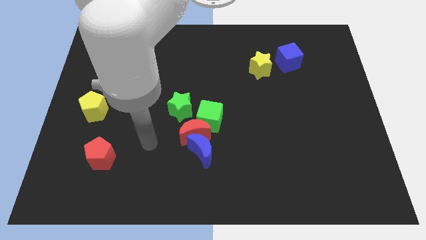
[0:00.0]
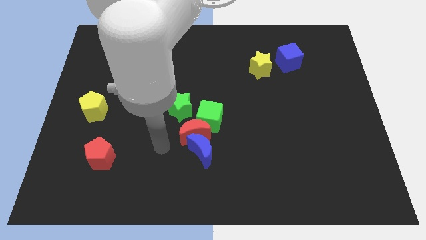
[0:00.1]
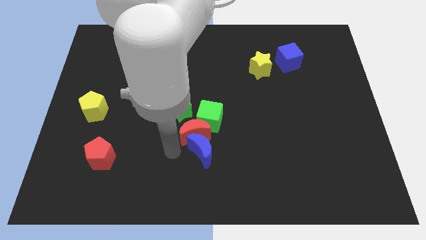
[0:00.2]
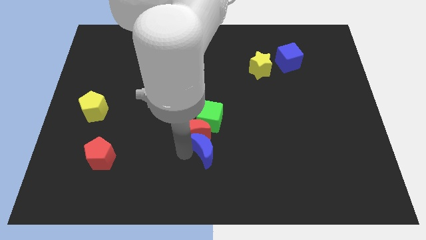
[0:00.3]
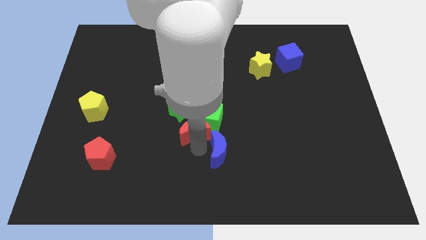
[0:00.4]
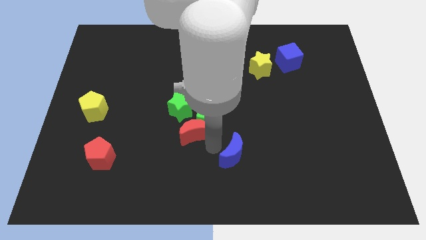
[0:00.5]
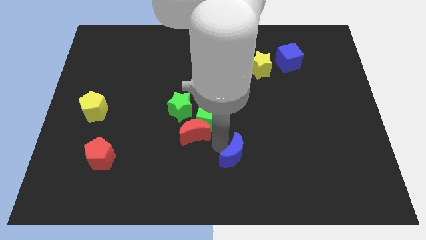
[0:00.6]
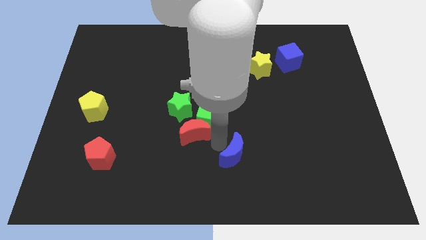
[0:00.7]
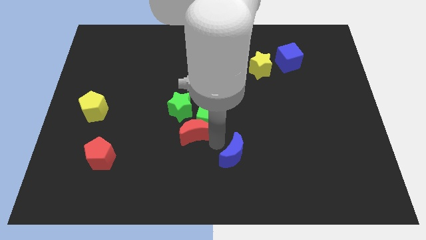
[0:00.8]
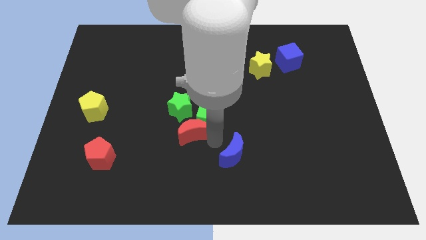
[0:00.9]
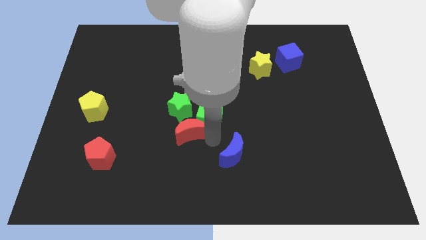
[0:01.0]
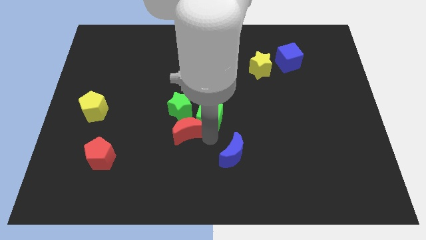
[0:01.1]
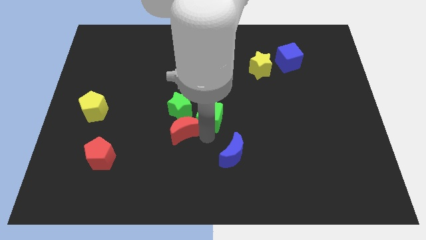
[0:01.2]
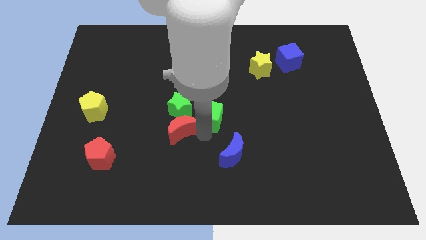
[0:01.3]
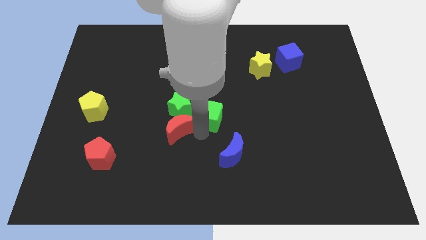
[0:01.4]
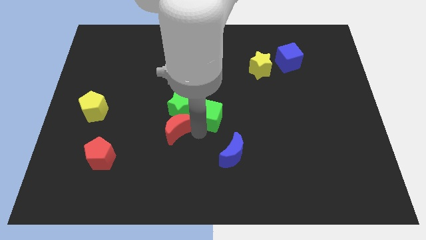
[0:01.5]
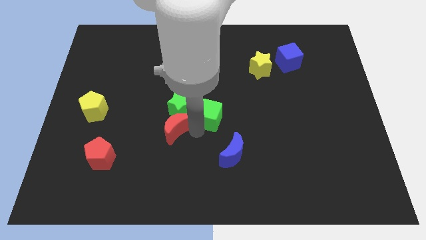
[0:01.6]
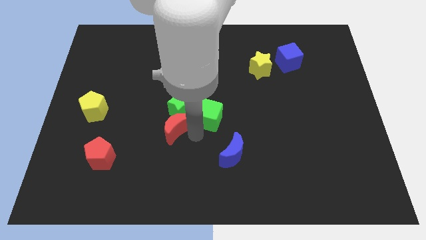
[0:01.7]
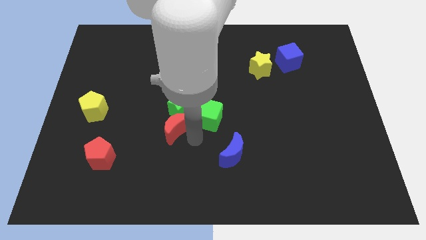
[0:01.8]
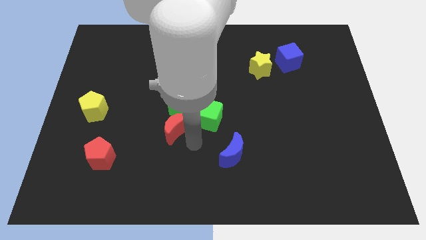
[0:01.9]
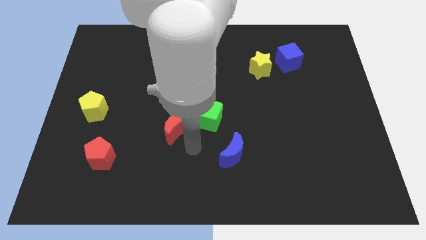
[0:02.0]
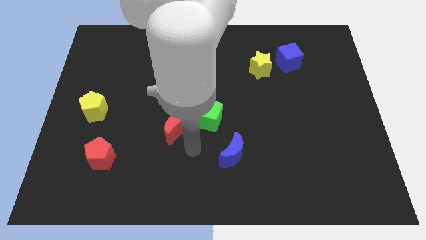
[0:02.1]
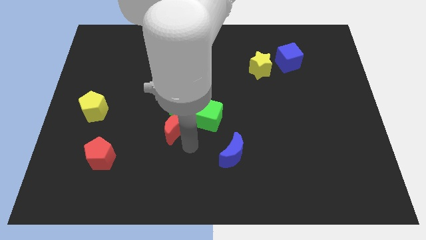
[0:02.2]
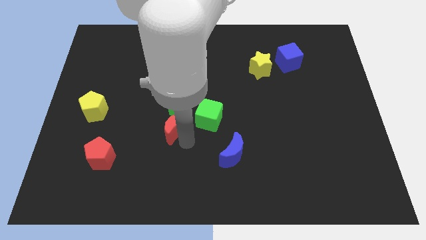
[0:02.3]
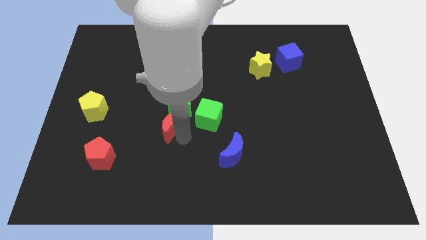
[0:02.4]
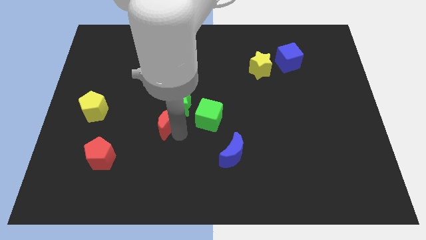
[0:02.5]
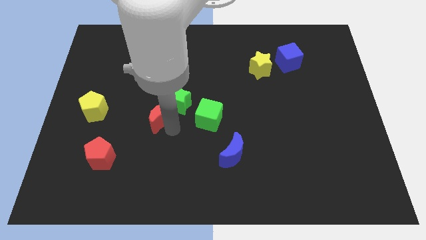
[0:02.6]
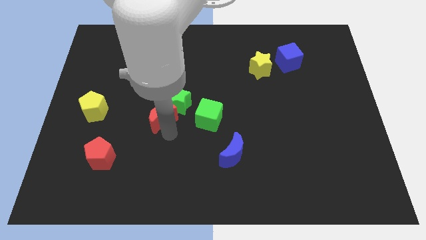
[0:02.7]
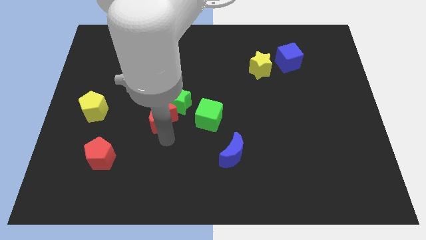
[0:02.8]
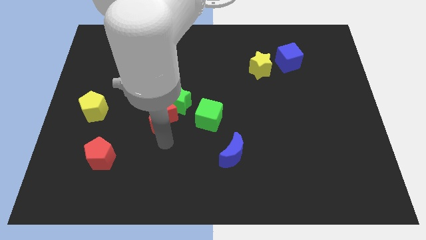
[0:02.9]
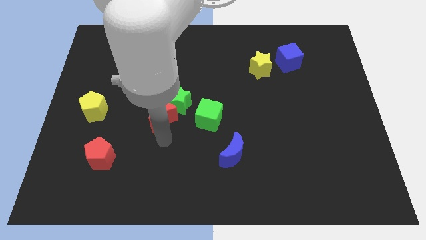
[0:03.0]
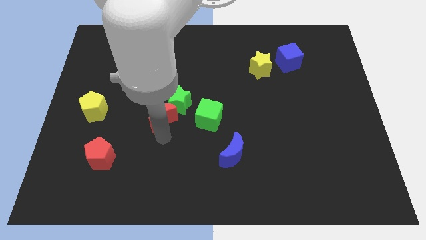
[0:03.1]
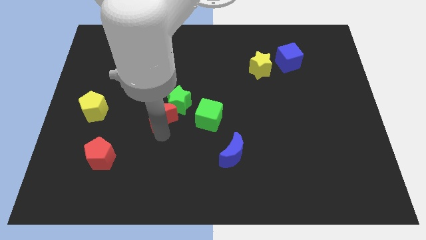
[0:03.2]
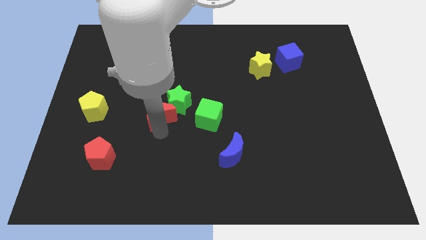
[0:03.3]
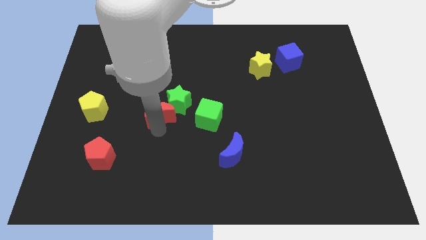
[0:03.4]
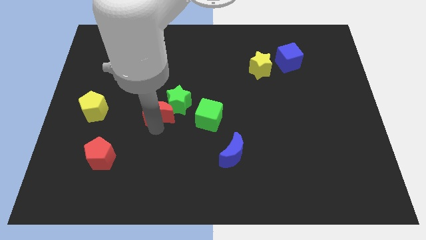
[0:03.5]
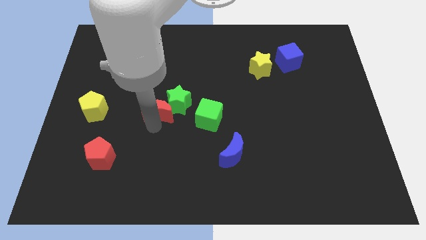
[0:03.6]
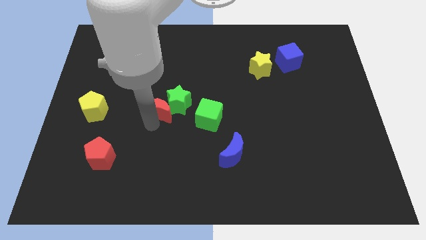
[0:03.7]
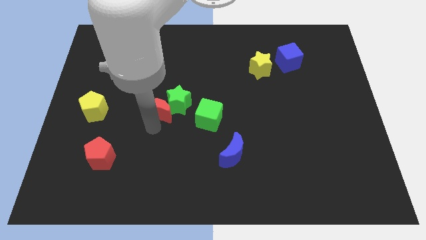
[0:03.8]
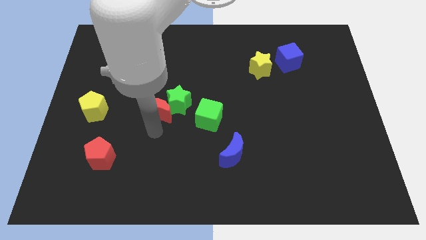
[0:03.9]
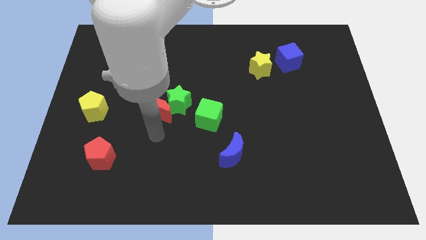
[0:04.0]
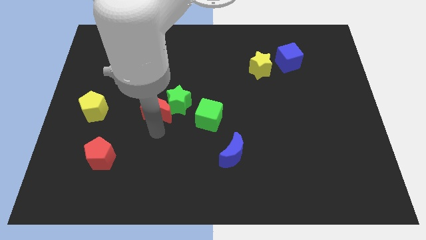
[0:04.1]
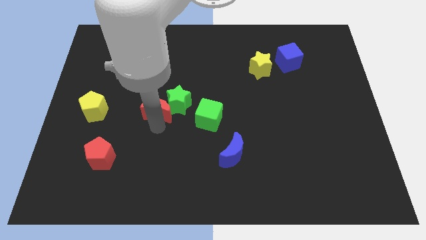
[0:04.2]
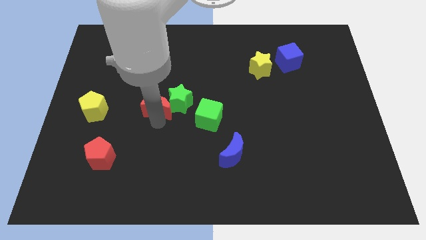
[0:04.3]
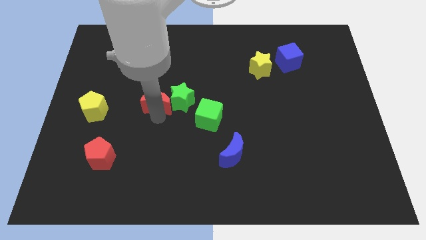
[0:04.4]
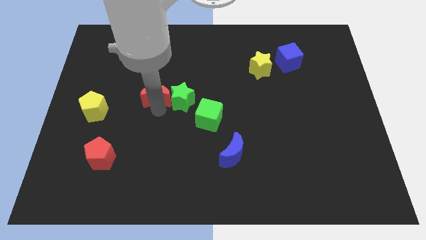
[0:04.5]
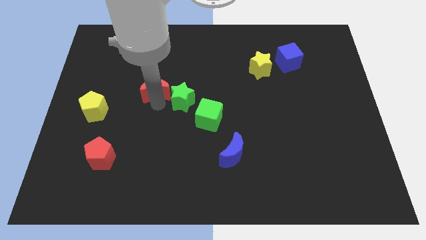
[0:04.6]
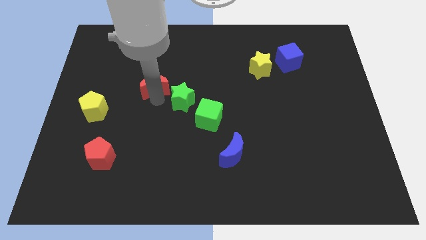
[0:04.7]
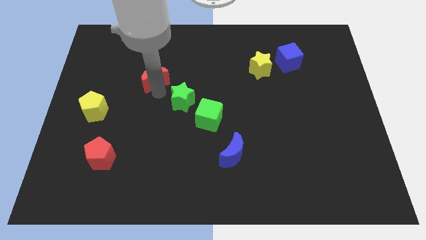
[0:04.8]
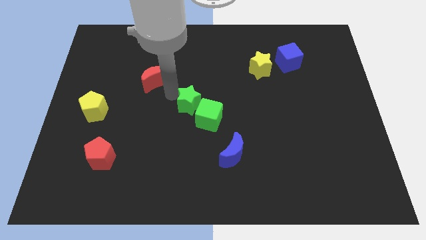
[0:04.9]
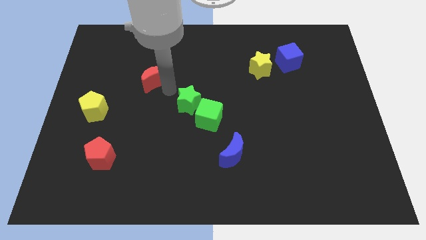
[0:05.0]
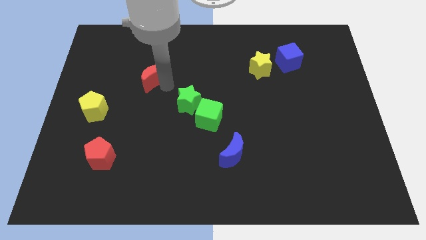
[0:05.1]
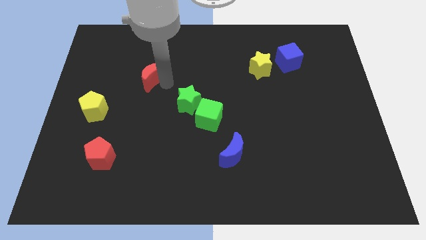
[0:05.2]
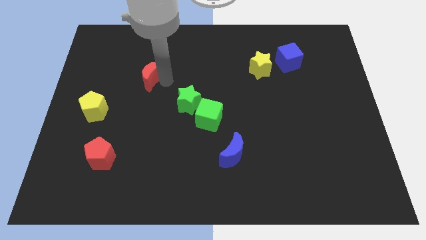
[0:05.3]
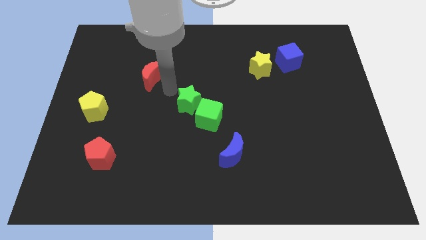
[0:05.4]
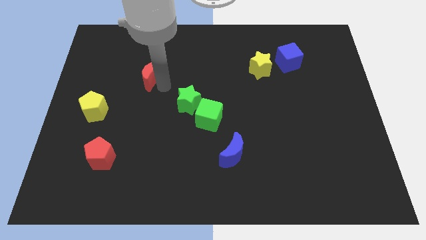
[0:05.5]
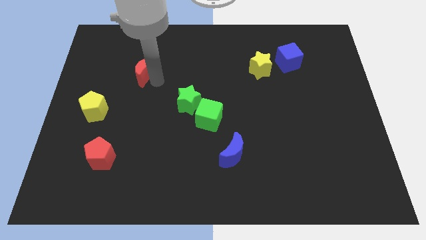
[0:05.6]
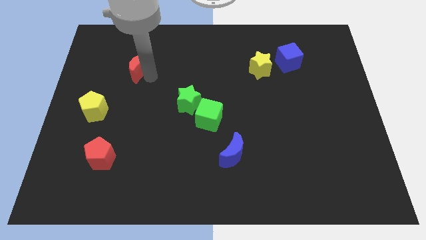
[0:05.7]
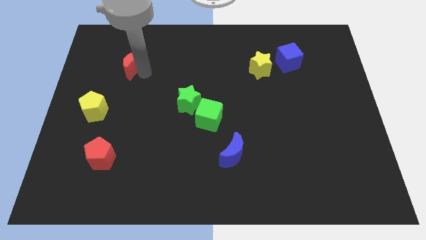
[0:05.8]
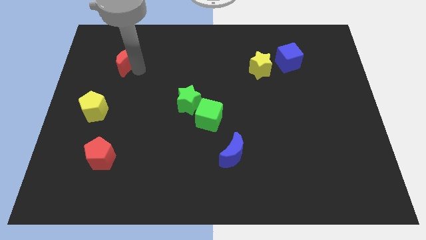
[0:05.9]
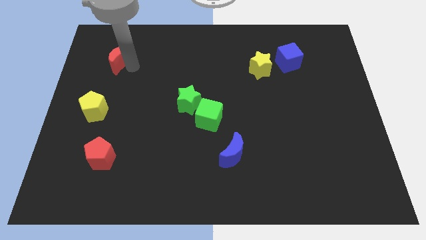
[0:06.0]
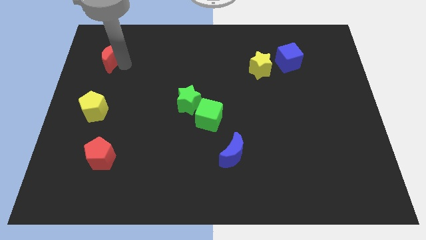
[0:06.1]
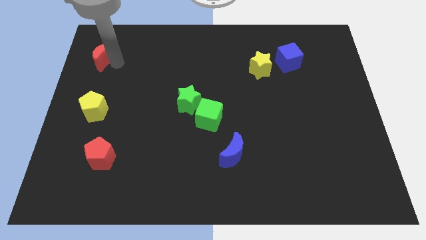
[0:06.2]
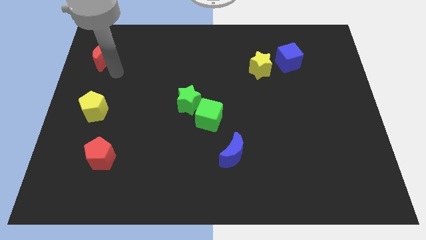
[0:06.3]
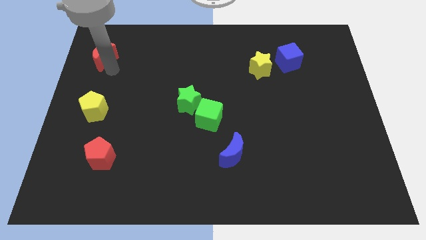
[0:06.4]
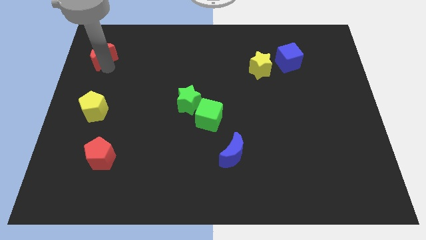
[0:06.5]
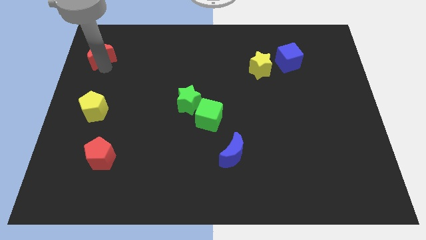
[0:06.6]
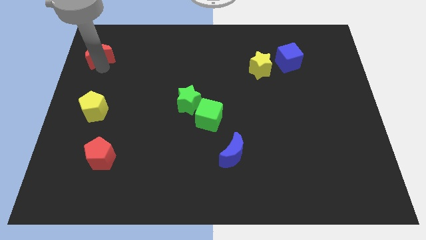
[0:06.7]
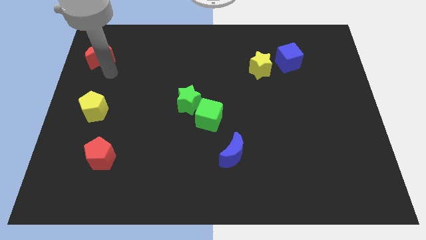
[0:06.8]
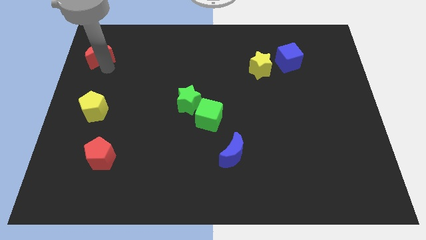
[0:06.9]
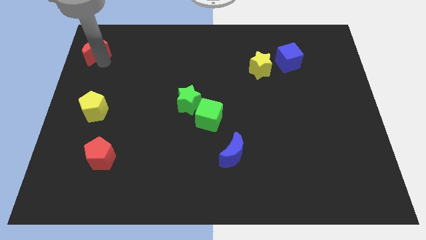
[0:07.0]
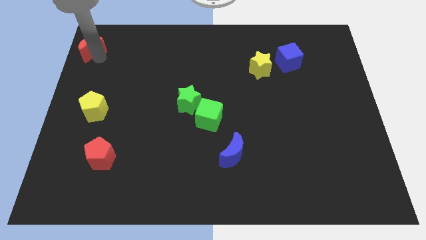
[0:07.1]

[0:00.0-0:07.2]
put the red moon to the top left of the board
